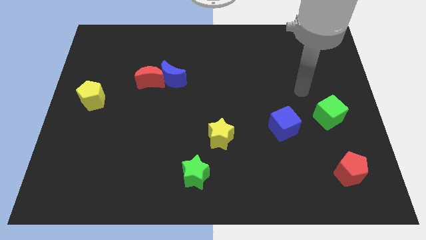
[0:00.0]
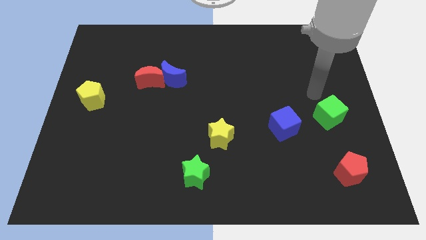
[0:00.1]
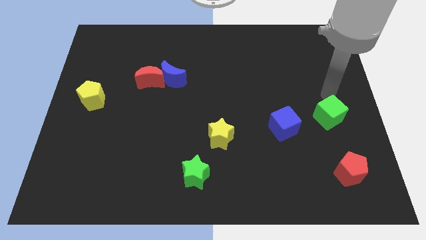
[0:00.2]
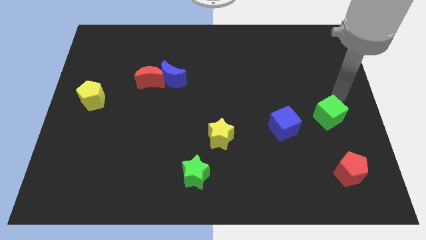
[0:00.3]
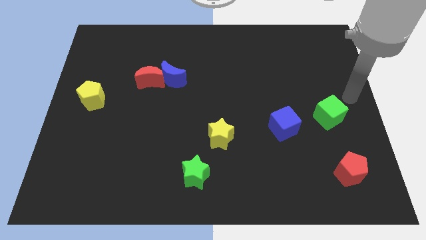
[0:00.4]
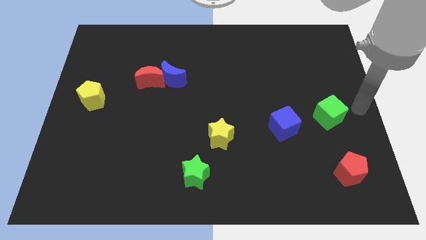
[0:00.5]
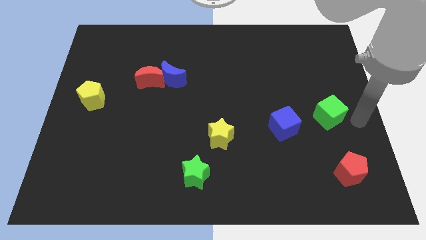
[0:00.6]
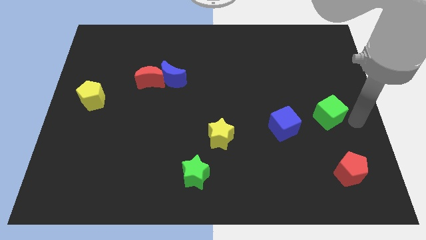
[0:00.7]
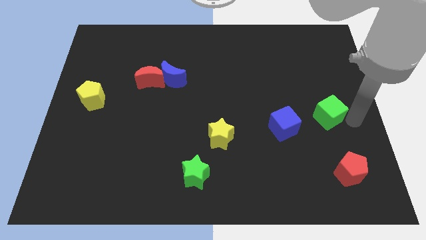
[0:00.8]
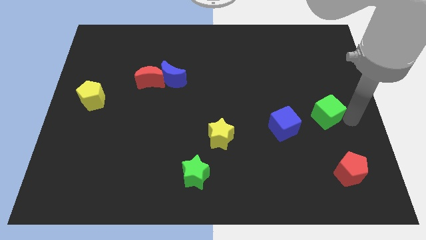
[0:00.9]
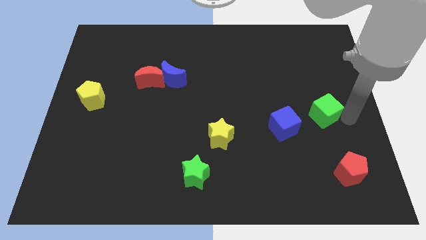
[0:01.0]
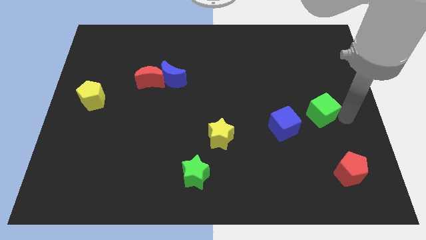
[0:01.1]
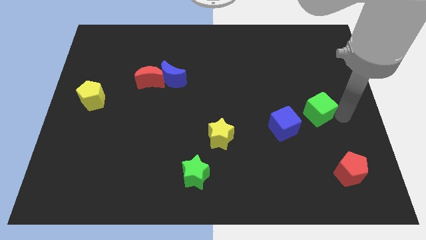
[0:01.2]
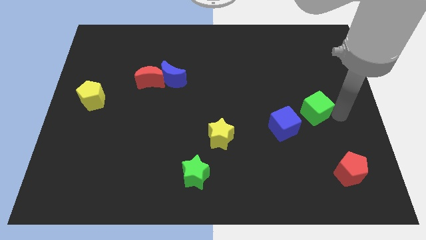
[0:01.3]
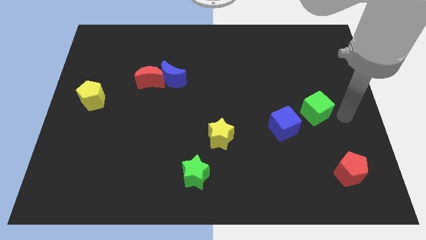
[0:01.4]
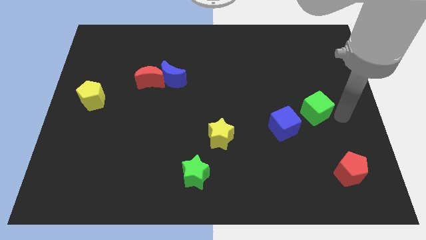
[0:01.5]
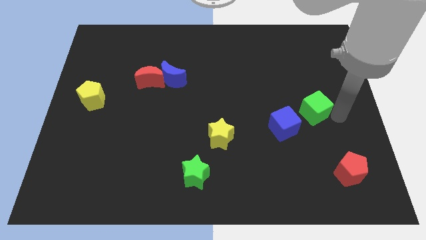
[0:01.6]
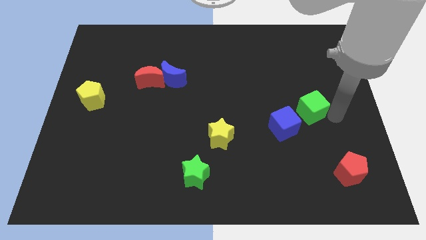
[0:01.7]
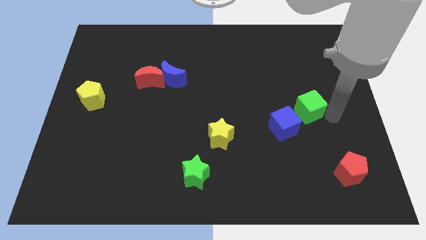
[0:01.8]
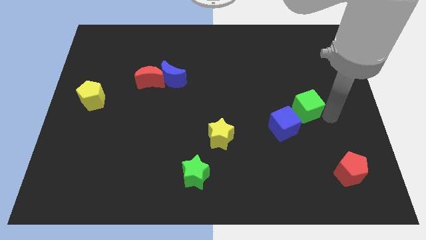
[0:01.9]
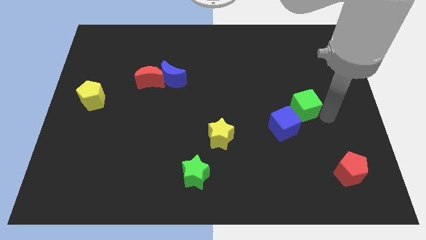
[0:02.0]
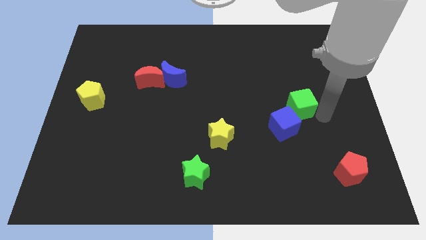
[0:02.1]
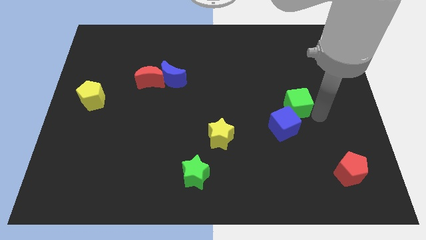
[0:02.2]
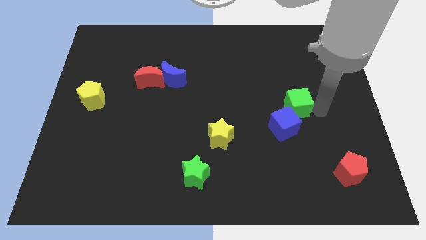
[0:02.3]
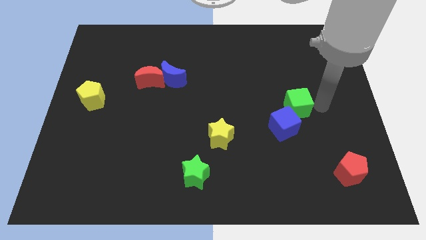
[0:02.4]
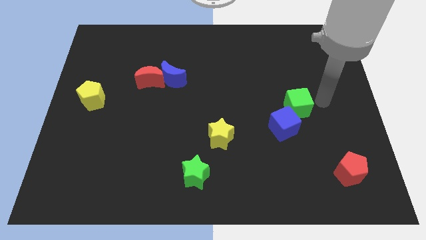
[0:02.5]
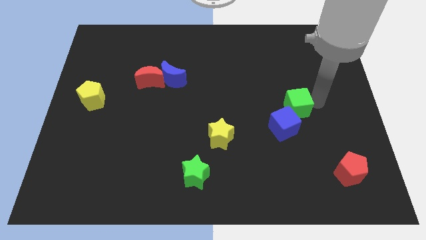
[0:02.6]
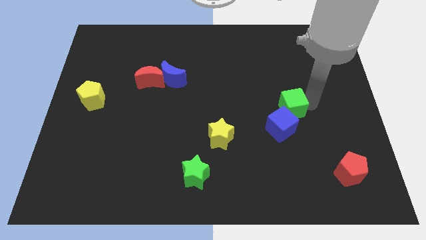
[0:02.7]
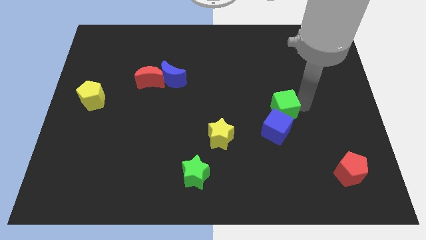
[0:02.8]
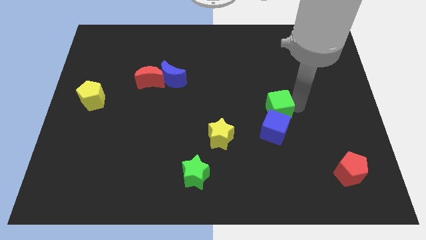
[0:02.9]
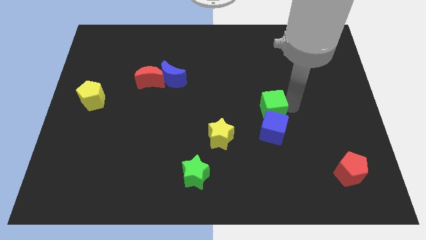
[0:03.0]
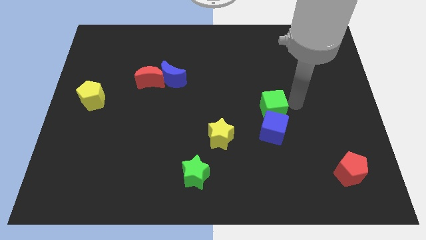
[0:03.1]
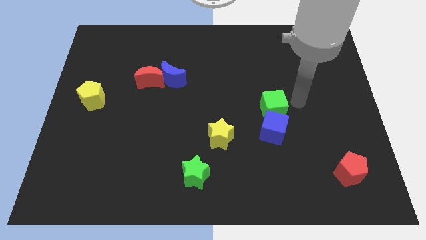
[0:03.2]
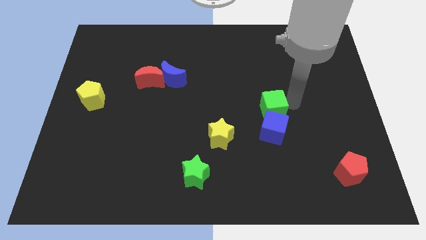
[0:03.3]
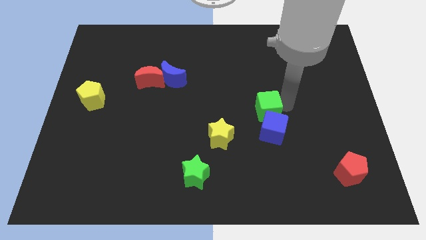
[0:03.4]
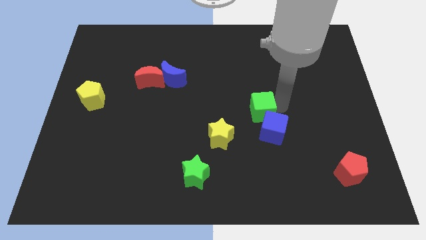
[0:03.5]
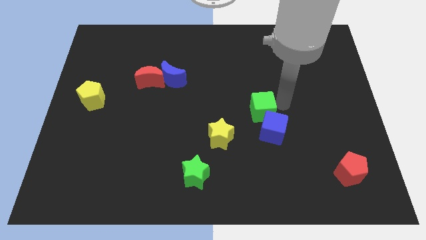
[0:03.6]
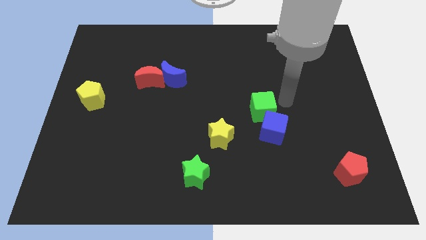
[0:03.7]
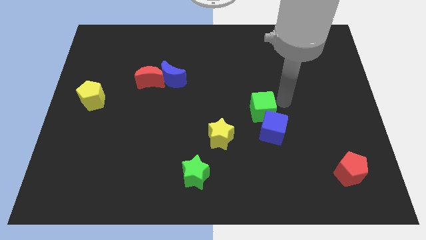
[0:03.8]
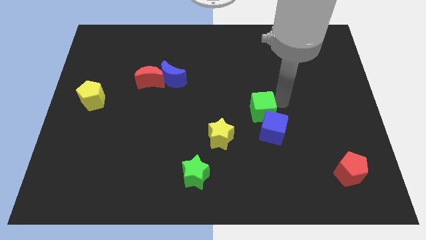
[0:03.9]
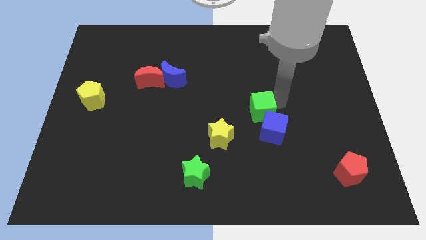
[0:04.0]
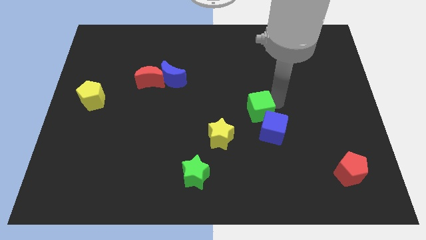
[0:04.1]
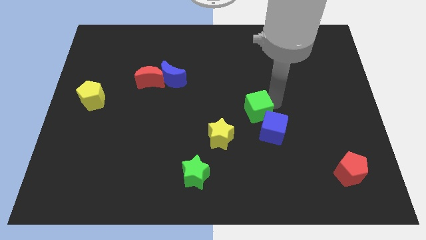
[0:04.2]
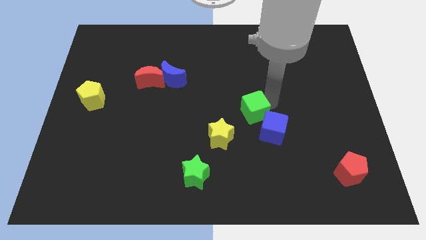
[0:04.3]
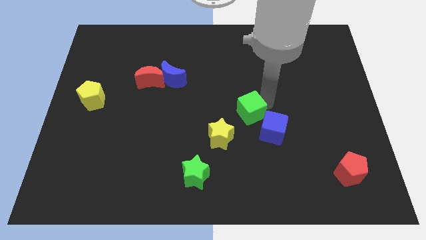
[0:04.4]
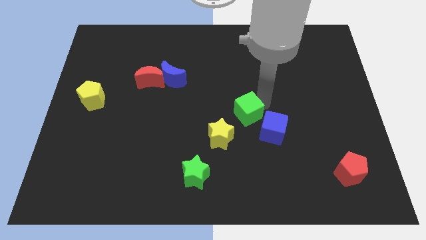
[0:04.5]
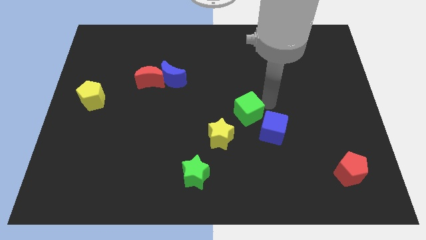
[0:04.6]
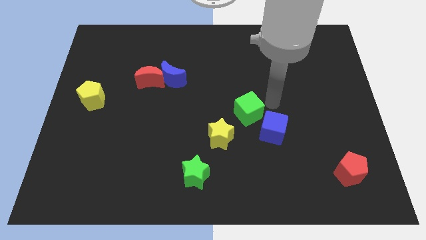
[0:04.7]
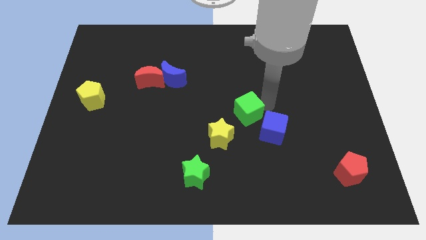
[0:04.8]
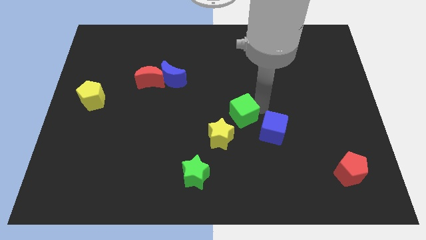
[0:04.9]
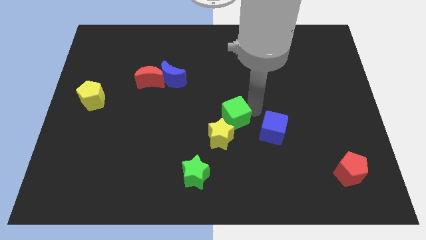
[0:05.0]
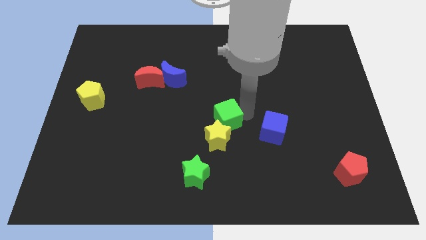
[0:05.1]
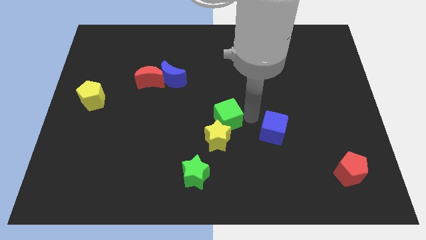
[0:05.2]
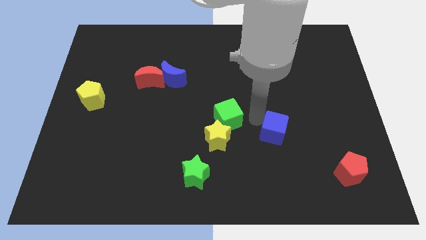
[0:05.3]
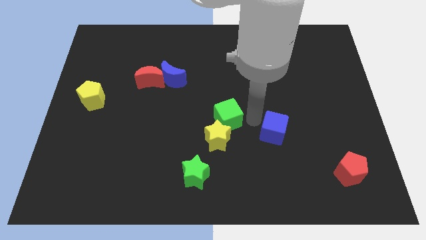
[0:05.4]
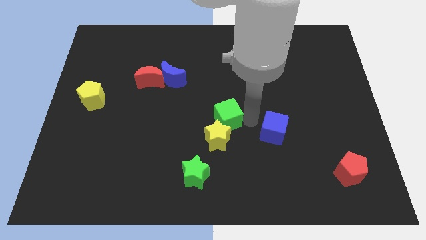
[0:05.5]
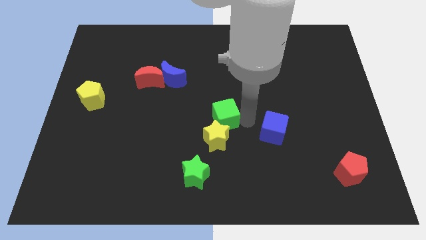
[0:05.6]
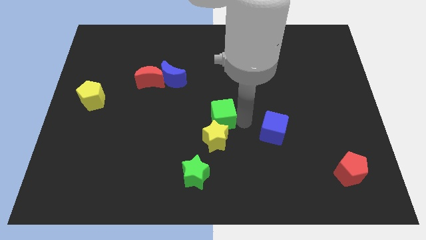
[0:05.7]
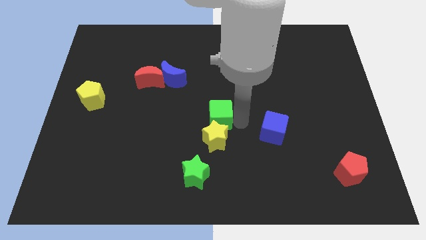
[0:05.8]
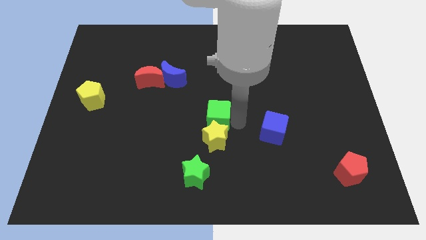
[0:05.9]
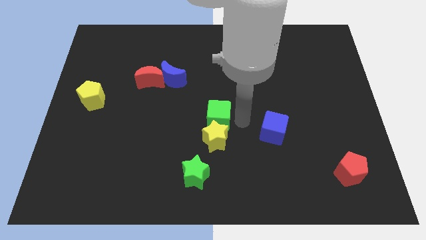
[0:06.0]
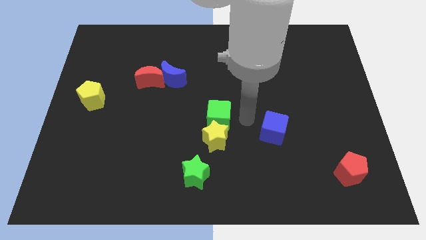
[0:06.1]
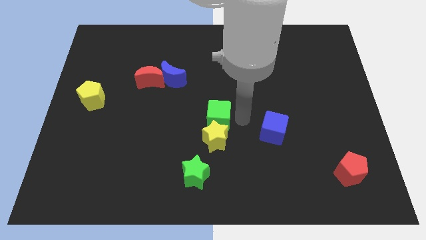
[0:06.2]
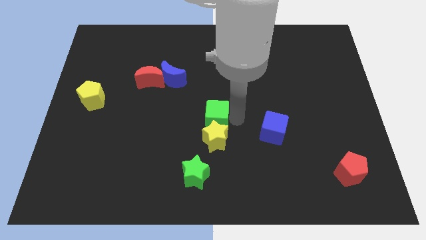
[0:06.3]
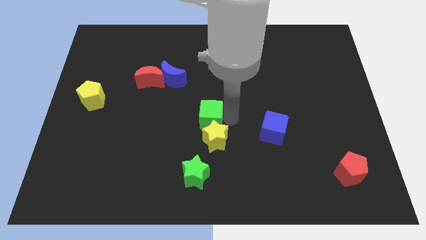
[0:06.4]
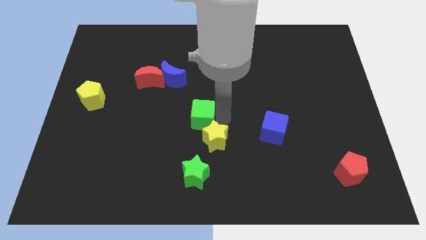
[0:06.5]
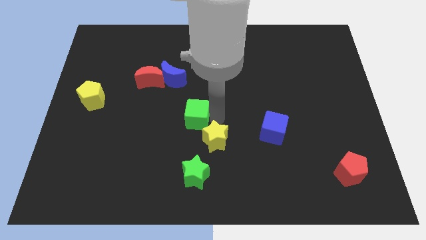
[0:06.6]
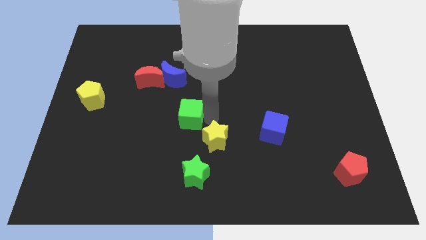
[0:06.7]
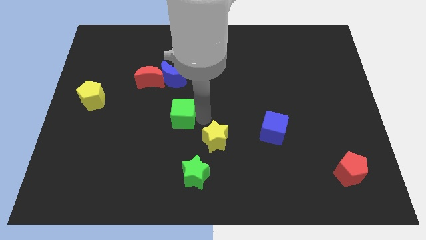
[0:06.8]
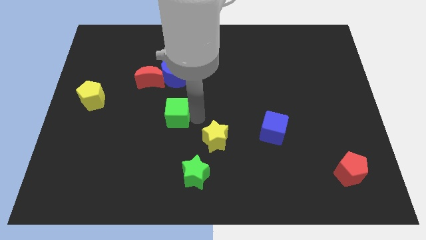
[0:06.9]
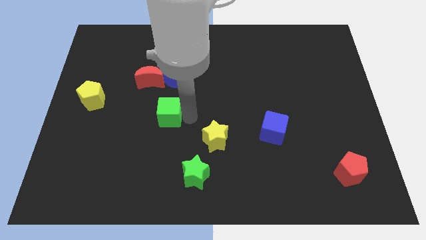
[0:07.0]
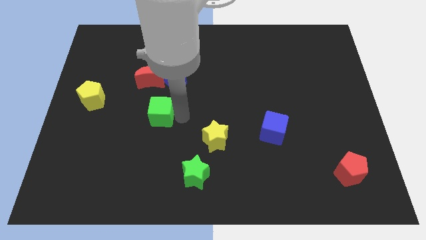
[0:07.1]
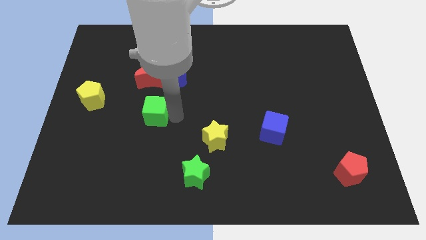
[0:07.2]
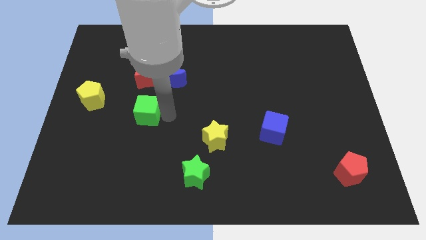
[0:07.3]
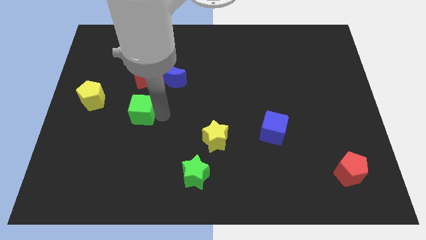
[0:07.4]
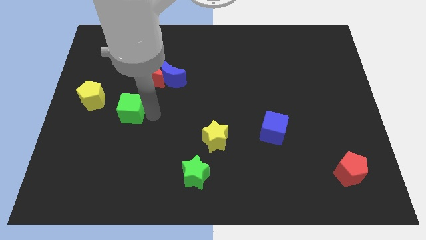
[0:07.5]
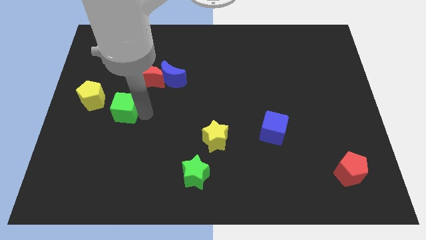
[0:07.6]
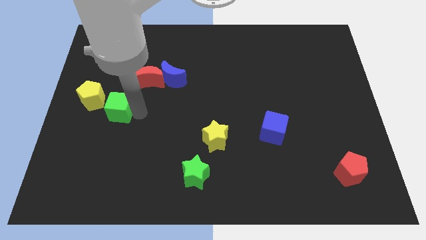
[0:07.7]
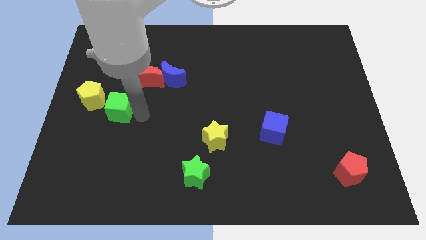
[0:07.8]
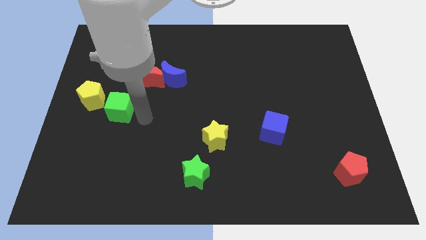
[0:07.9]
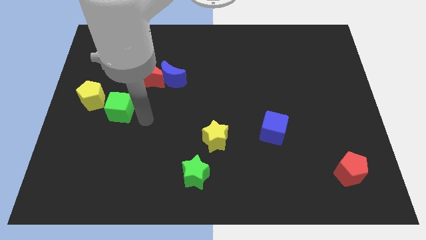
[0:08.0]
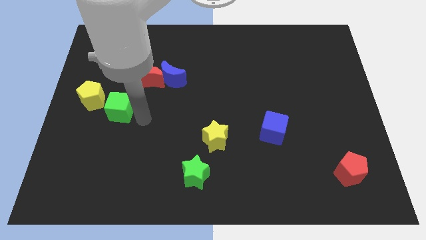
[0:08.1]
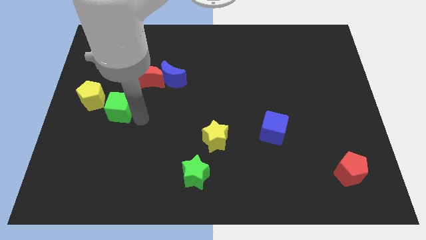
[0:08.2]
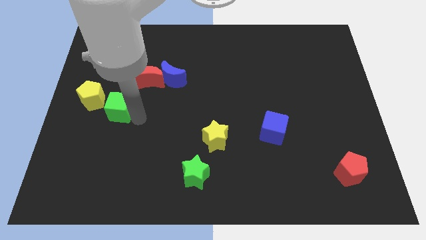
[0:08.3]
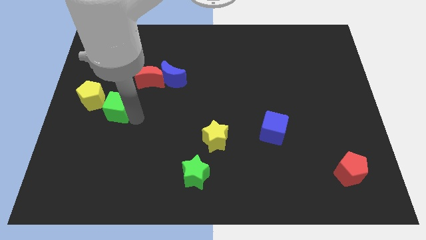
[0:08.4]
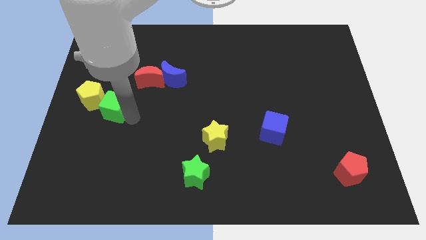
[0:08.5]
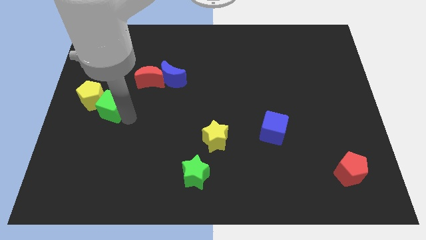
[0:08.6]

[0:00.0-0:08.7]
slide the green cube towards the yellow pentagon
